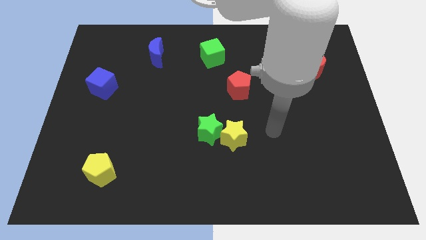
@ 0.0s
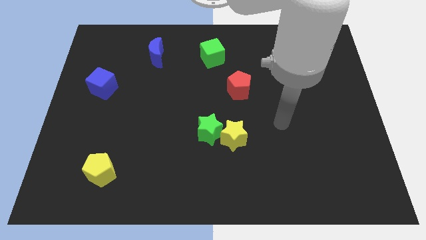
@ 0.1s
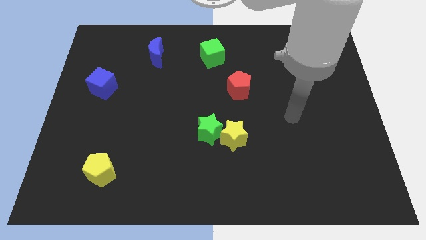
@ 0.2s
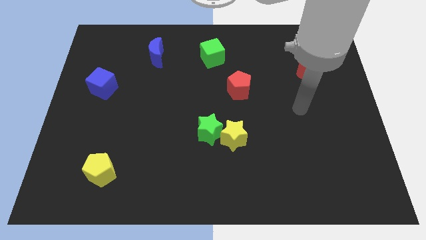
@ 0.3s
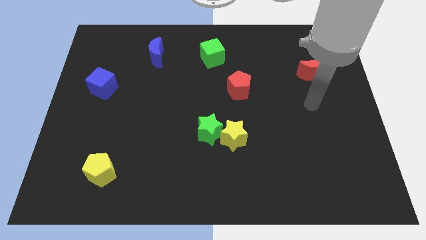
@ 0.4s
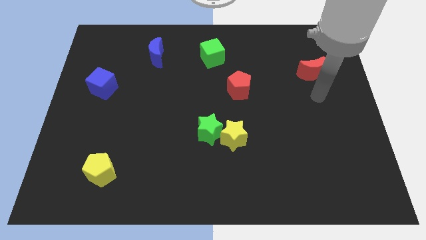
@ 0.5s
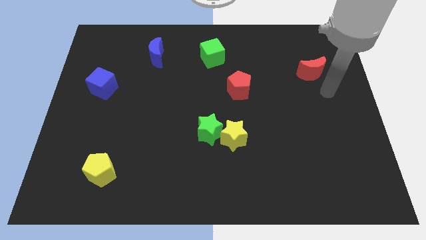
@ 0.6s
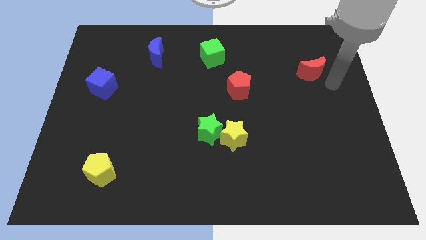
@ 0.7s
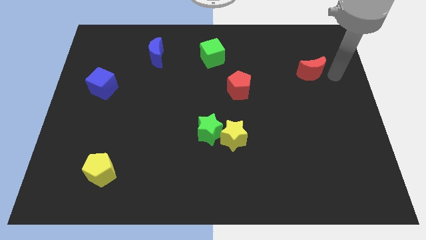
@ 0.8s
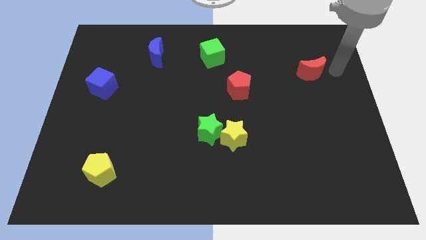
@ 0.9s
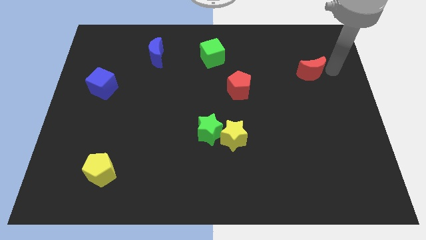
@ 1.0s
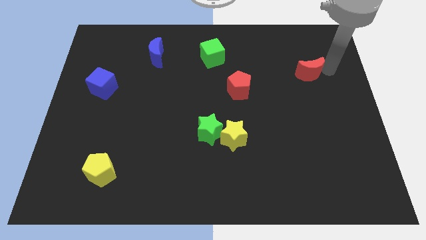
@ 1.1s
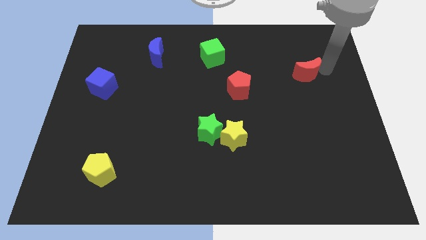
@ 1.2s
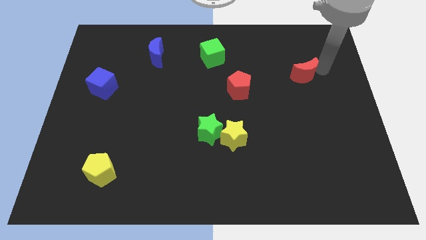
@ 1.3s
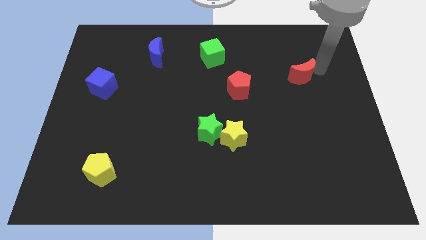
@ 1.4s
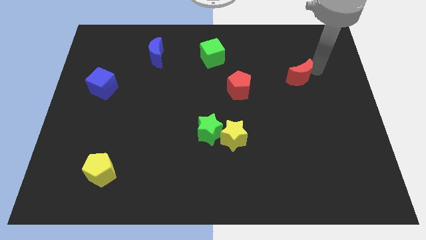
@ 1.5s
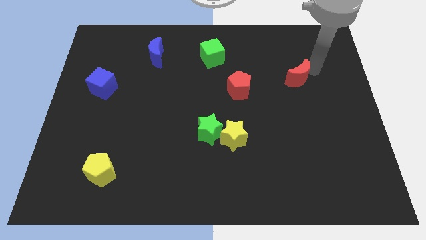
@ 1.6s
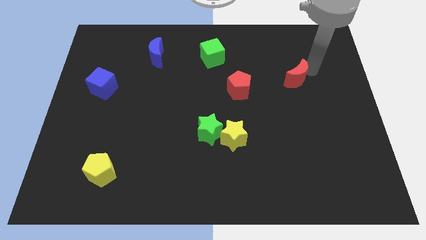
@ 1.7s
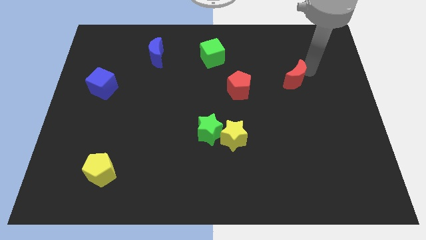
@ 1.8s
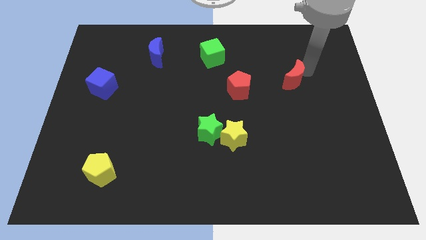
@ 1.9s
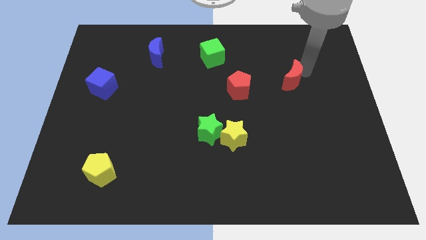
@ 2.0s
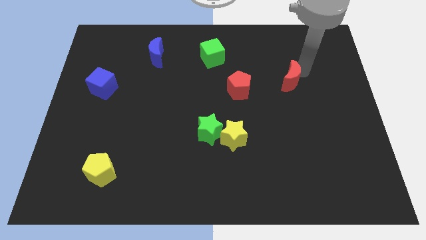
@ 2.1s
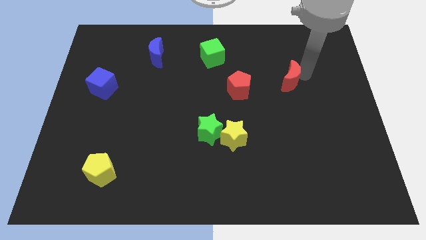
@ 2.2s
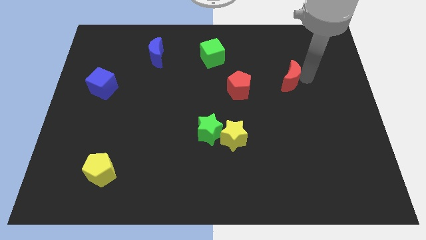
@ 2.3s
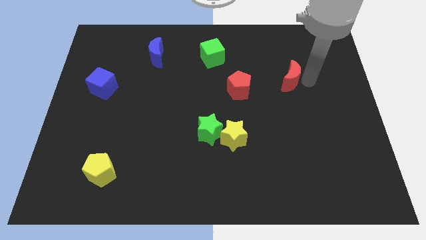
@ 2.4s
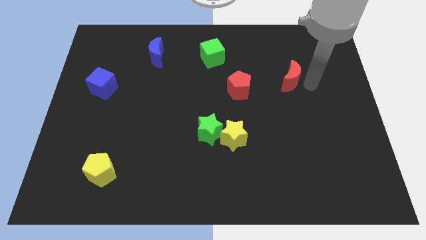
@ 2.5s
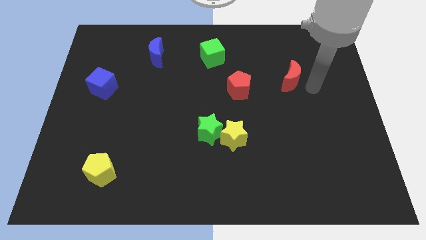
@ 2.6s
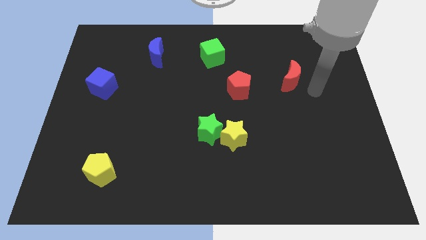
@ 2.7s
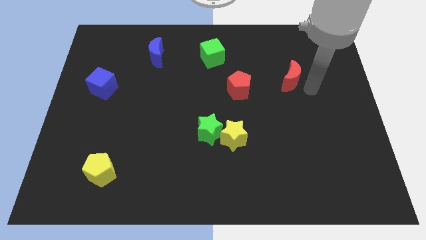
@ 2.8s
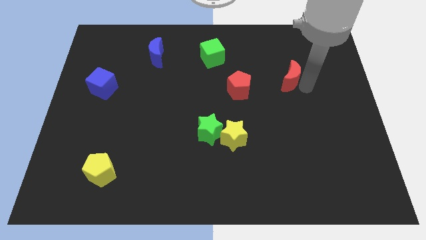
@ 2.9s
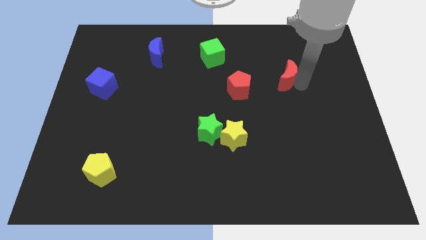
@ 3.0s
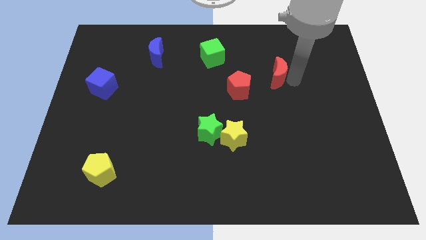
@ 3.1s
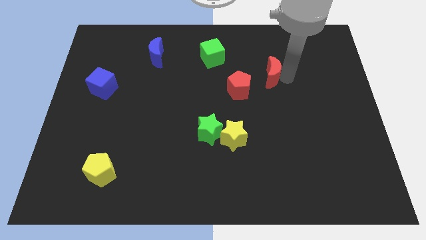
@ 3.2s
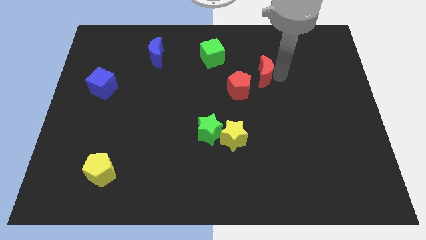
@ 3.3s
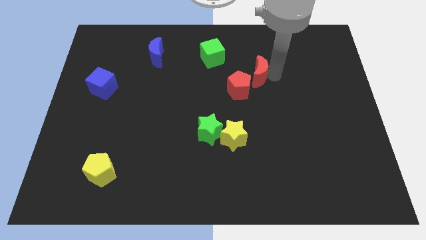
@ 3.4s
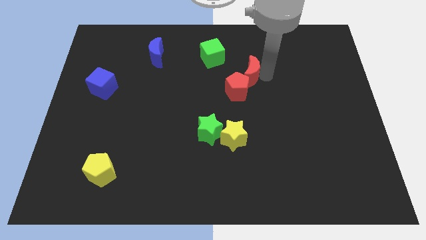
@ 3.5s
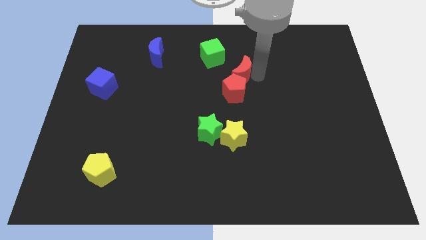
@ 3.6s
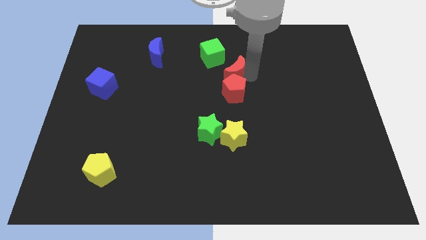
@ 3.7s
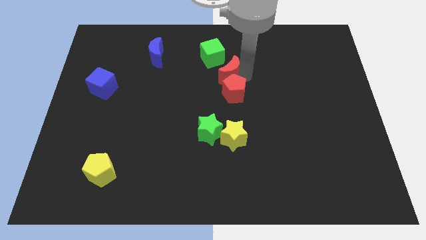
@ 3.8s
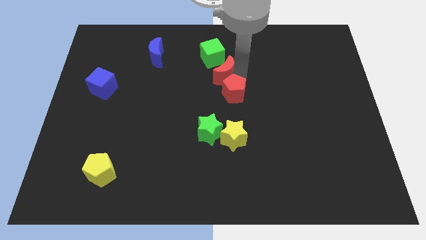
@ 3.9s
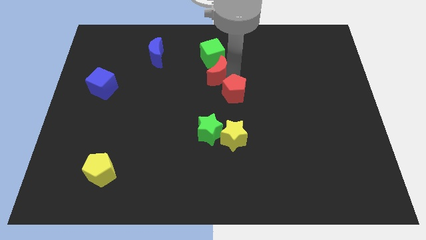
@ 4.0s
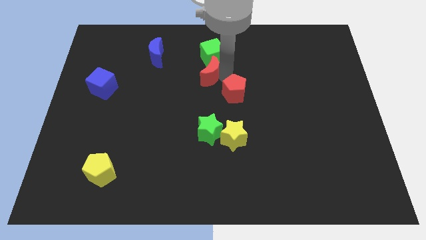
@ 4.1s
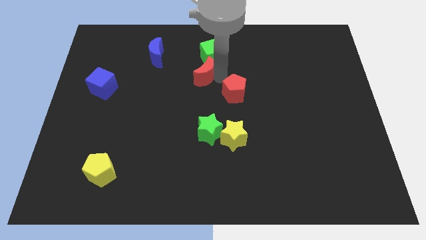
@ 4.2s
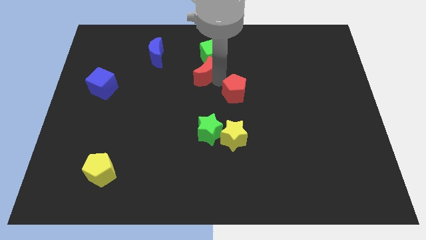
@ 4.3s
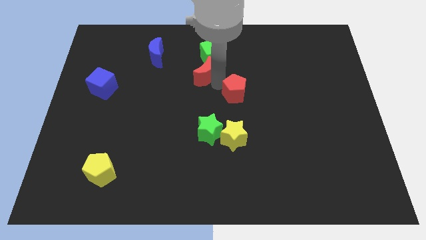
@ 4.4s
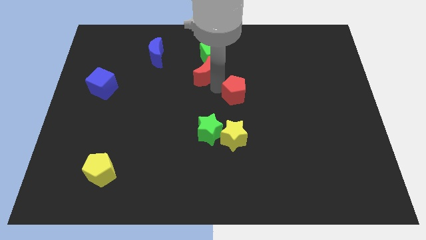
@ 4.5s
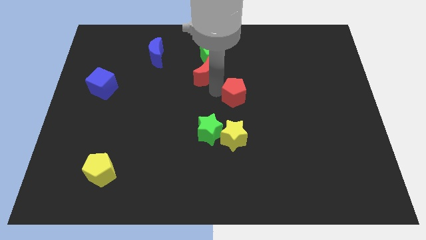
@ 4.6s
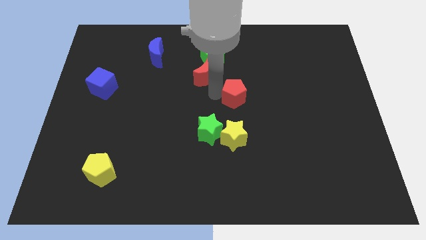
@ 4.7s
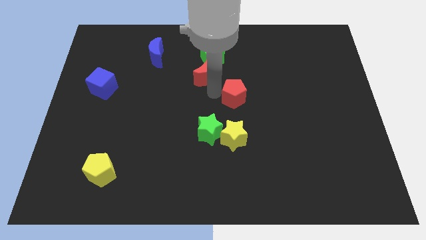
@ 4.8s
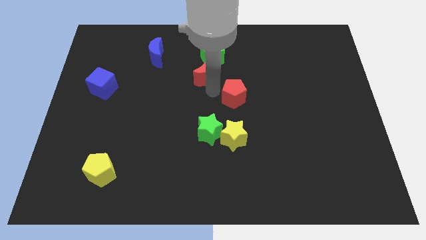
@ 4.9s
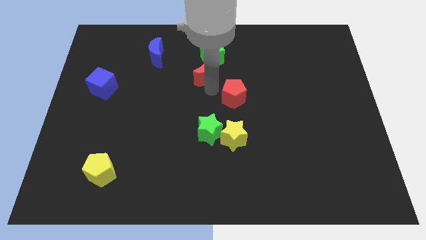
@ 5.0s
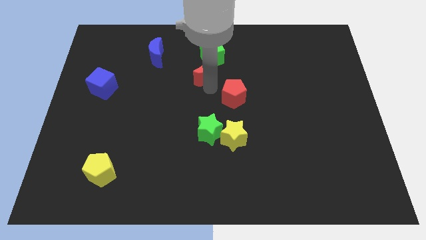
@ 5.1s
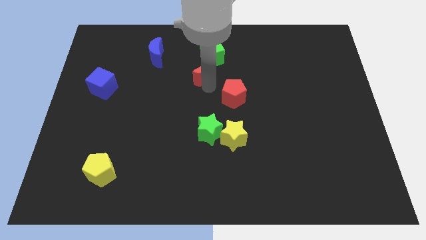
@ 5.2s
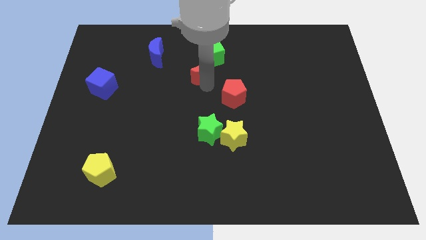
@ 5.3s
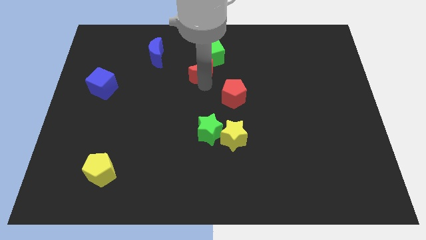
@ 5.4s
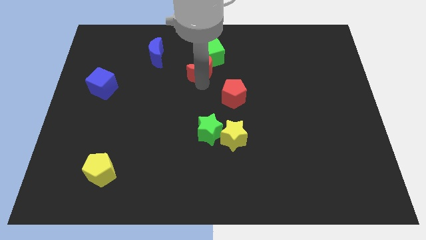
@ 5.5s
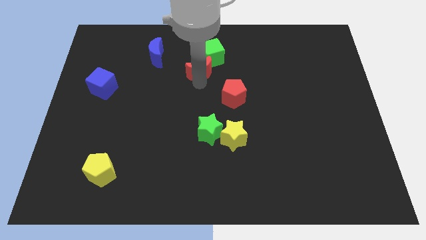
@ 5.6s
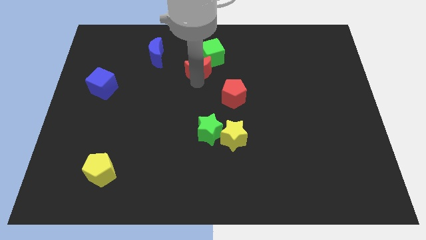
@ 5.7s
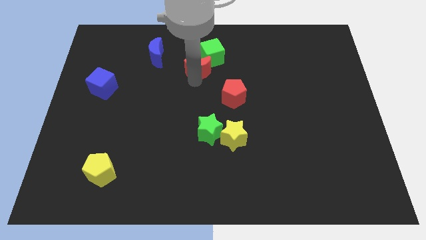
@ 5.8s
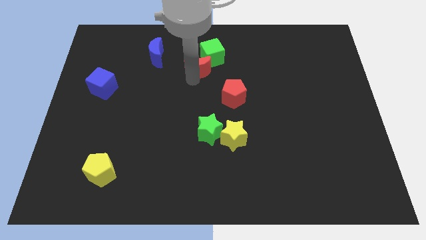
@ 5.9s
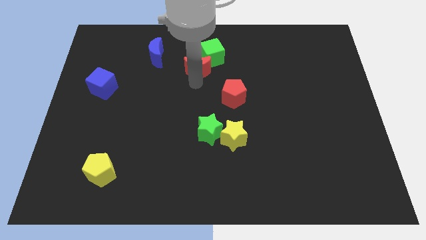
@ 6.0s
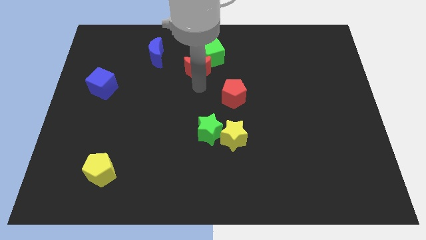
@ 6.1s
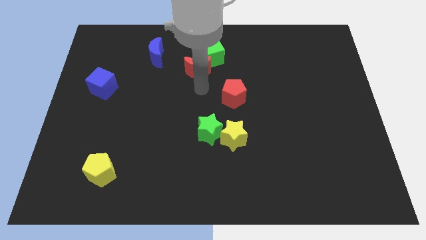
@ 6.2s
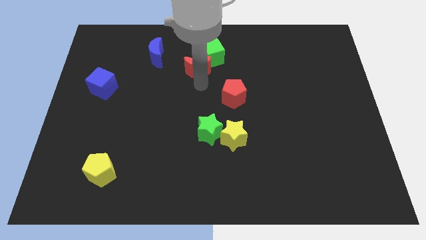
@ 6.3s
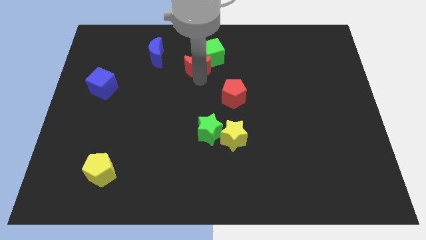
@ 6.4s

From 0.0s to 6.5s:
slide the red moon just right of the blue moon
